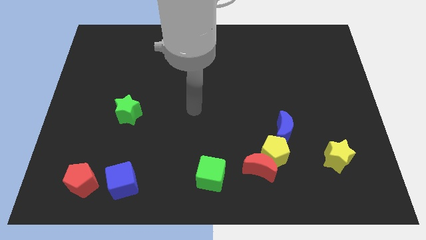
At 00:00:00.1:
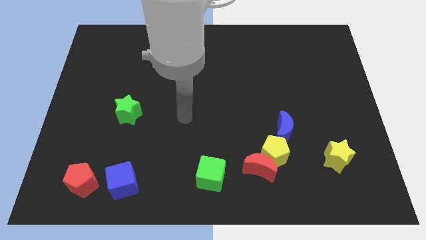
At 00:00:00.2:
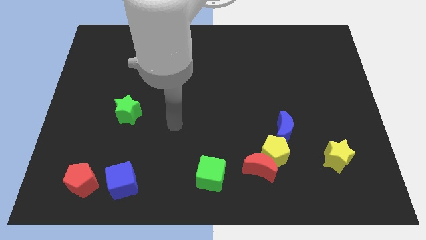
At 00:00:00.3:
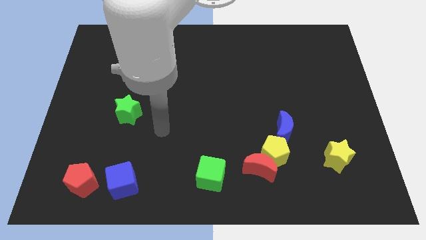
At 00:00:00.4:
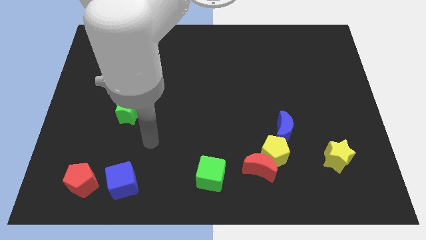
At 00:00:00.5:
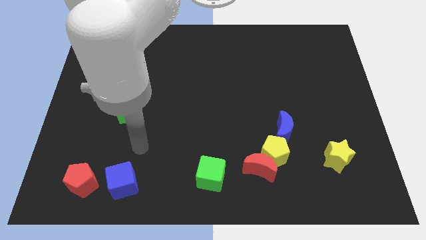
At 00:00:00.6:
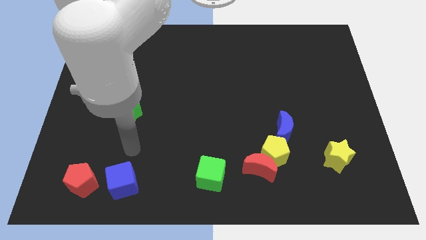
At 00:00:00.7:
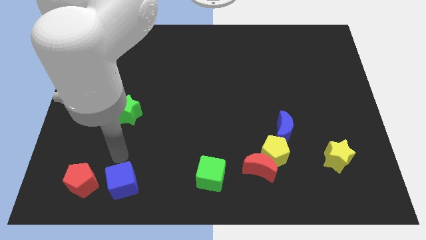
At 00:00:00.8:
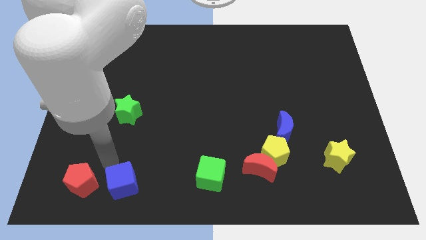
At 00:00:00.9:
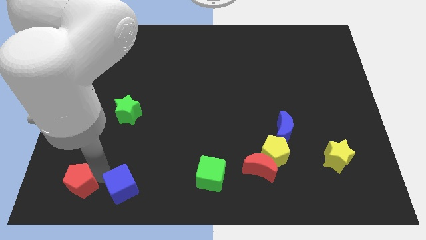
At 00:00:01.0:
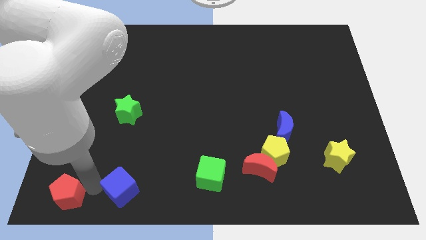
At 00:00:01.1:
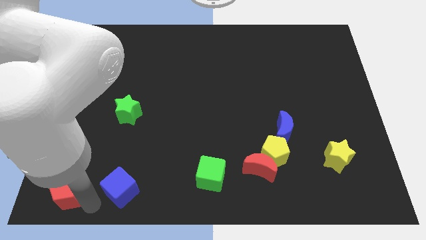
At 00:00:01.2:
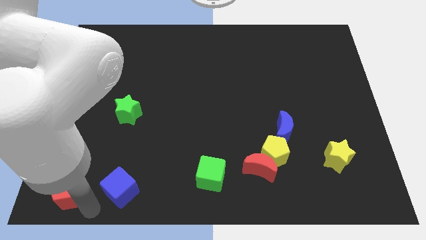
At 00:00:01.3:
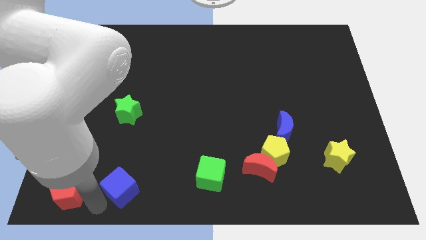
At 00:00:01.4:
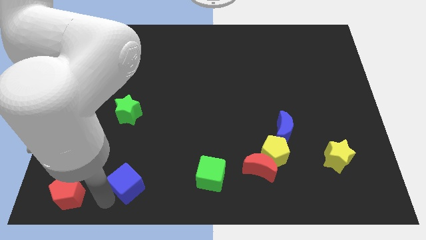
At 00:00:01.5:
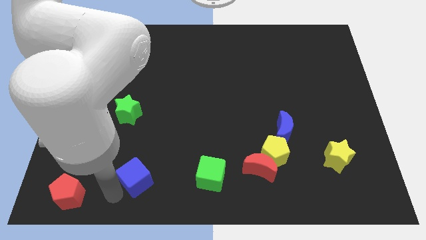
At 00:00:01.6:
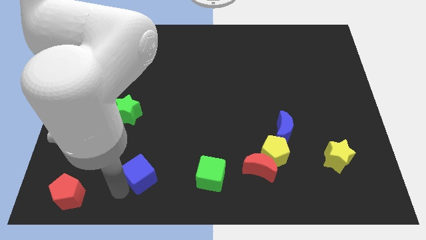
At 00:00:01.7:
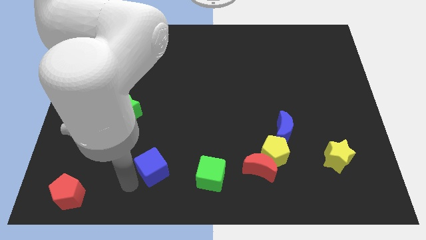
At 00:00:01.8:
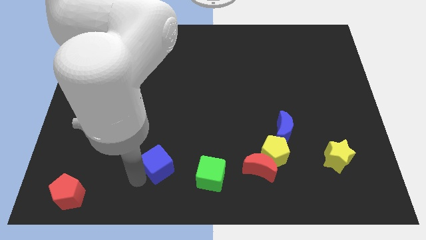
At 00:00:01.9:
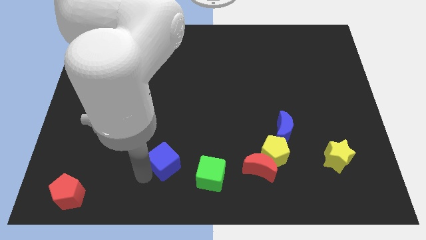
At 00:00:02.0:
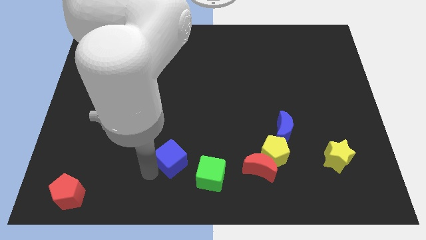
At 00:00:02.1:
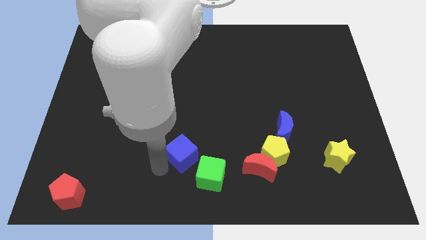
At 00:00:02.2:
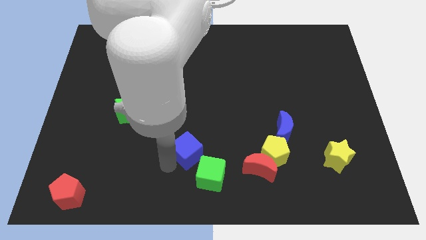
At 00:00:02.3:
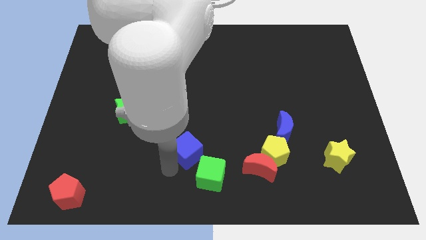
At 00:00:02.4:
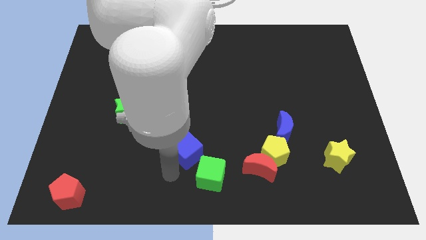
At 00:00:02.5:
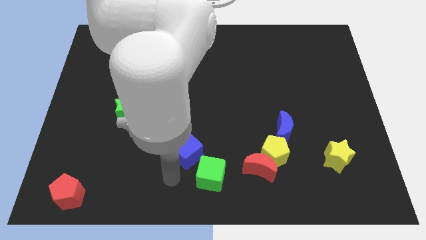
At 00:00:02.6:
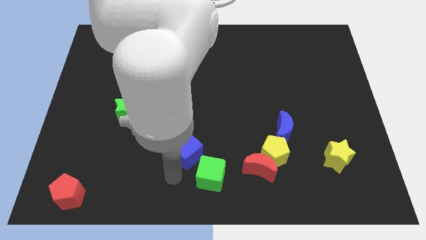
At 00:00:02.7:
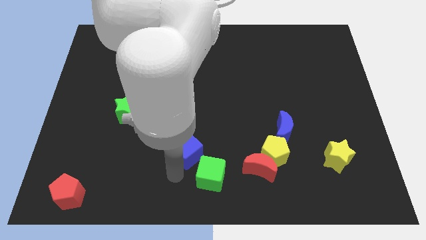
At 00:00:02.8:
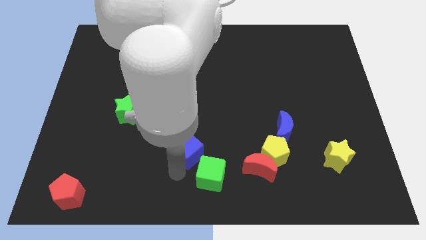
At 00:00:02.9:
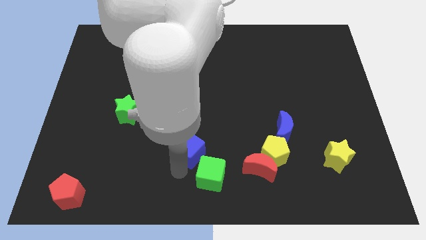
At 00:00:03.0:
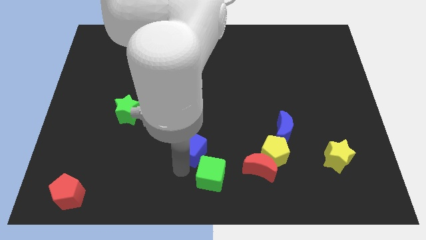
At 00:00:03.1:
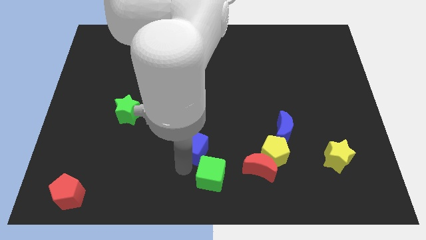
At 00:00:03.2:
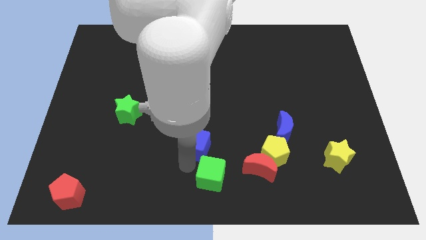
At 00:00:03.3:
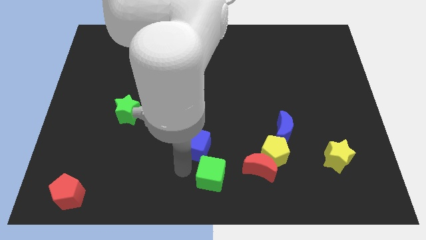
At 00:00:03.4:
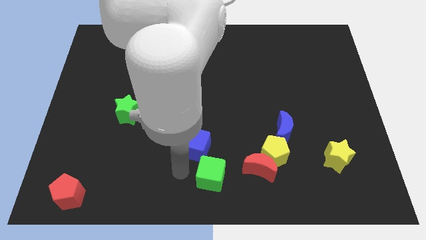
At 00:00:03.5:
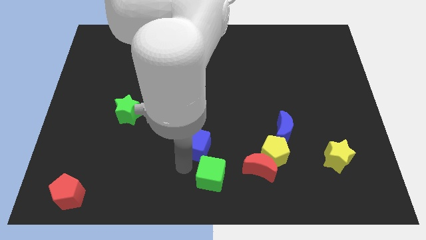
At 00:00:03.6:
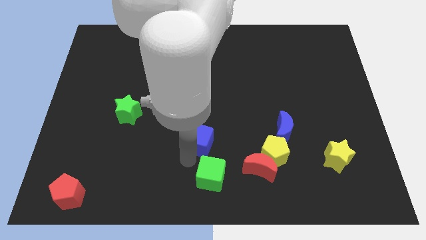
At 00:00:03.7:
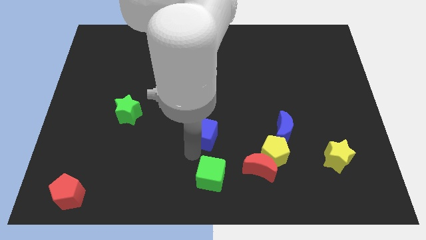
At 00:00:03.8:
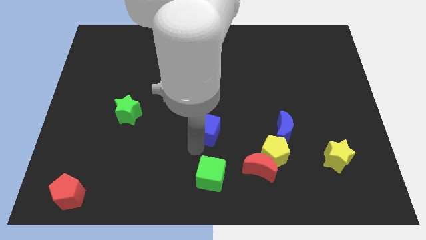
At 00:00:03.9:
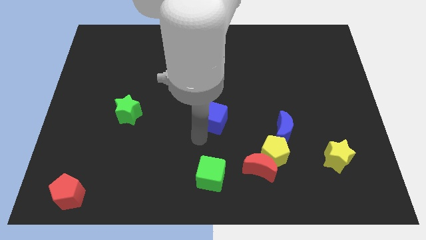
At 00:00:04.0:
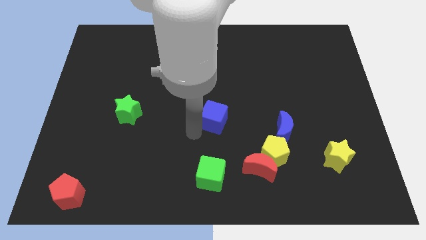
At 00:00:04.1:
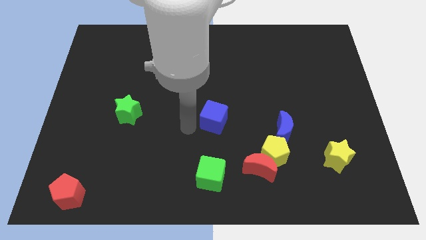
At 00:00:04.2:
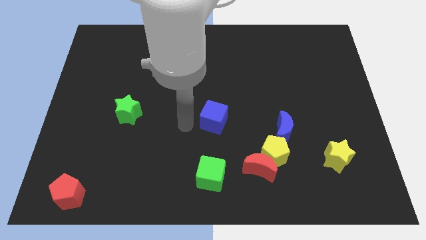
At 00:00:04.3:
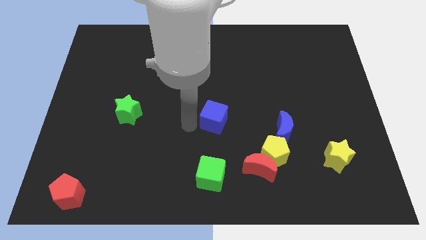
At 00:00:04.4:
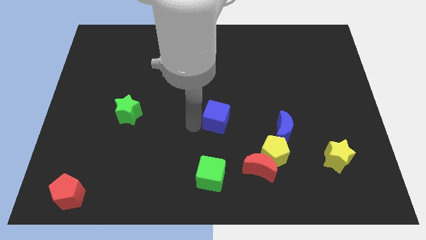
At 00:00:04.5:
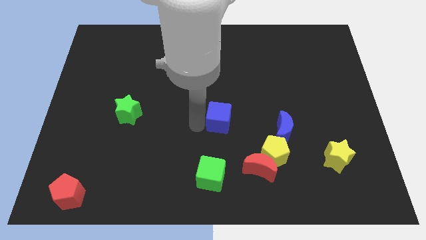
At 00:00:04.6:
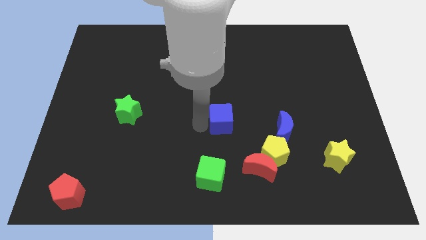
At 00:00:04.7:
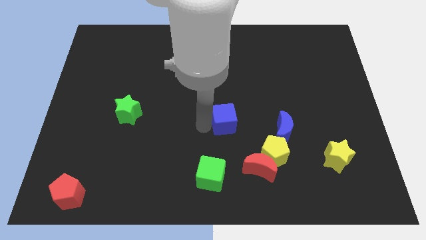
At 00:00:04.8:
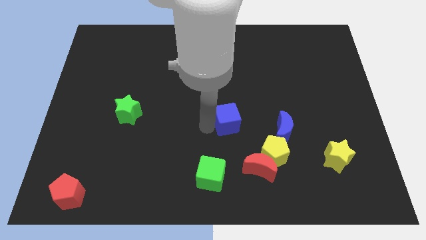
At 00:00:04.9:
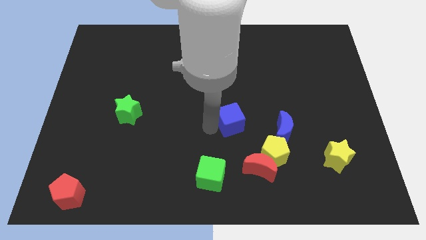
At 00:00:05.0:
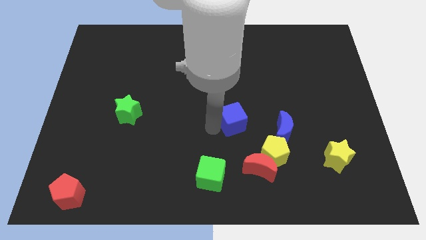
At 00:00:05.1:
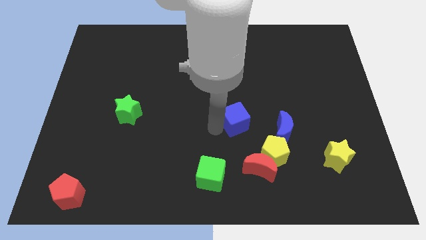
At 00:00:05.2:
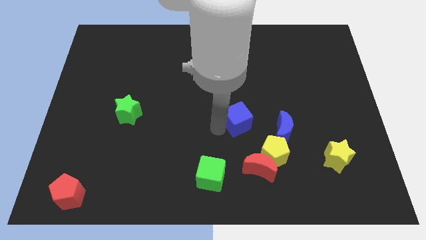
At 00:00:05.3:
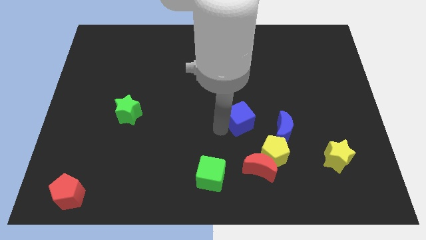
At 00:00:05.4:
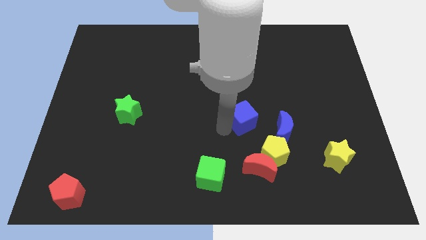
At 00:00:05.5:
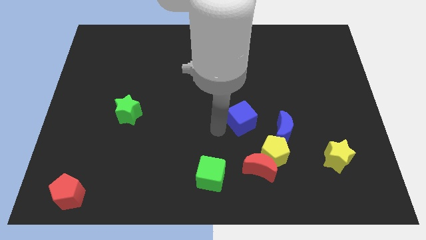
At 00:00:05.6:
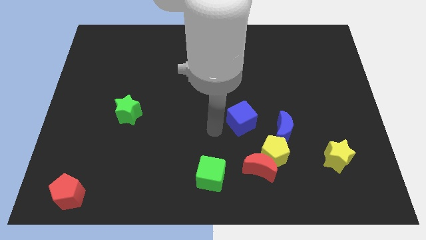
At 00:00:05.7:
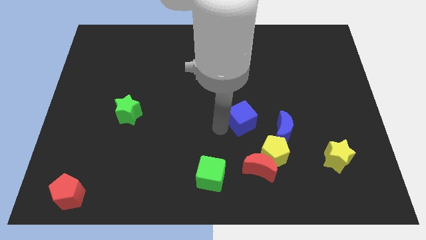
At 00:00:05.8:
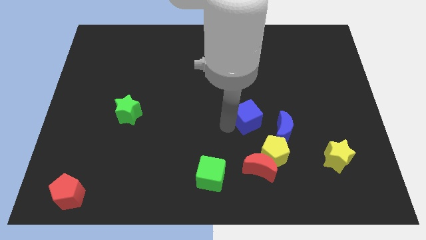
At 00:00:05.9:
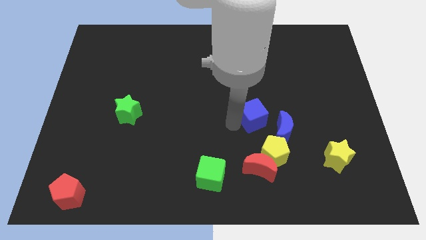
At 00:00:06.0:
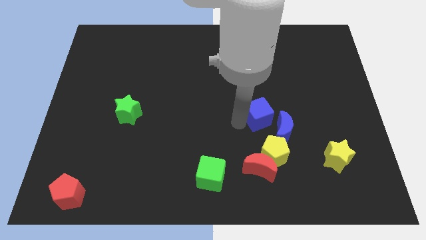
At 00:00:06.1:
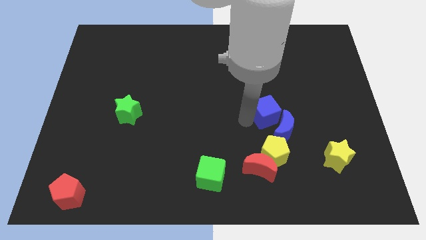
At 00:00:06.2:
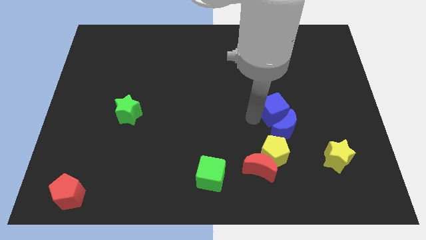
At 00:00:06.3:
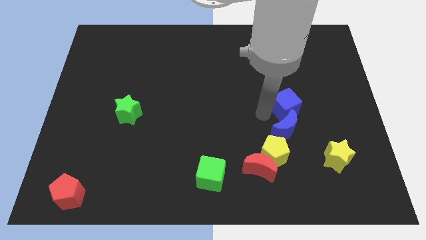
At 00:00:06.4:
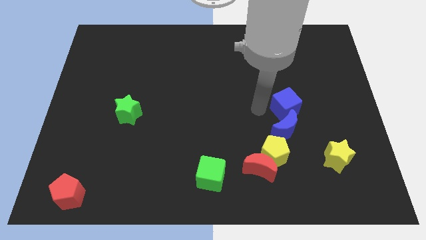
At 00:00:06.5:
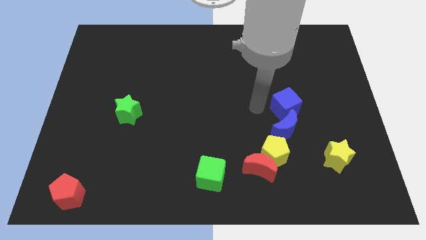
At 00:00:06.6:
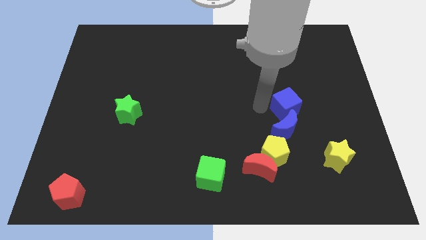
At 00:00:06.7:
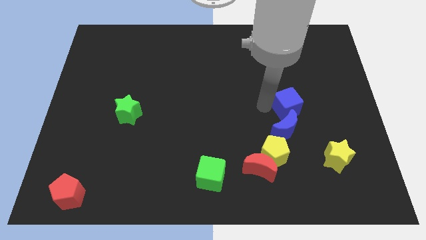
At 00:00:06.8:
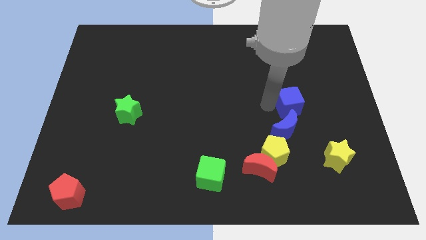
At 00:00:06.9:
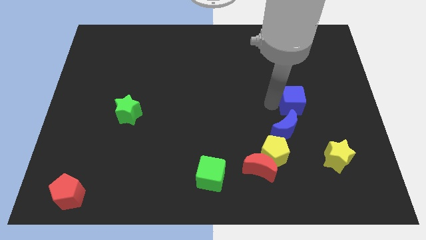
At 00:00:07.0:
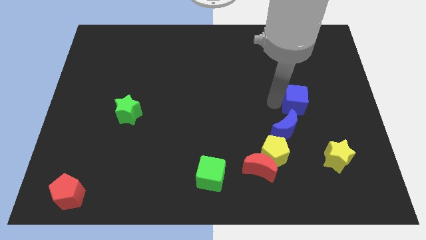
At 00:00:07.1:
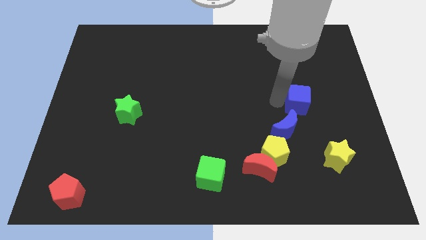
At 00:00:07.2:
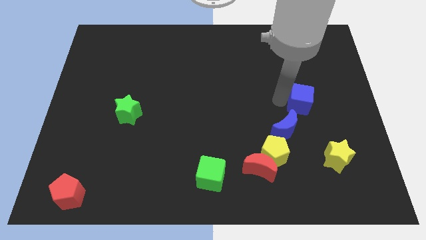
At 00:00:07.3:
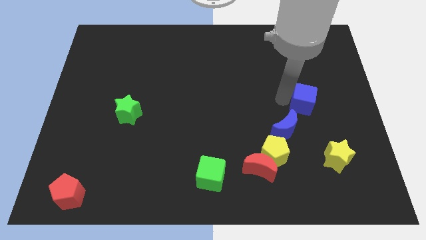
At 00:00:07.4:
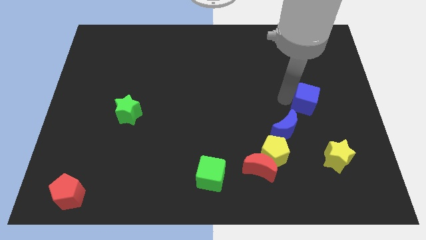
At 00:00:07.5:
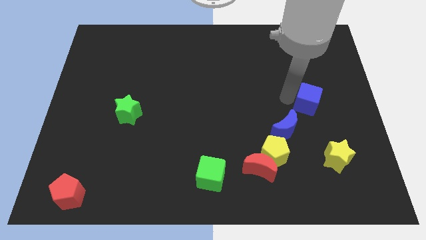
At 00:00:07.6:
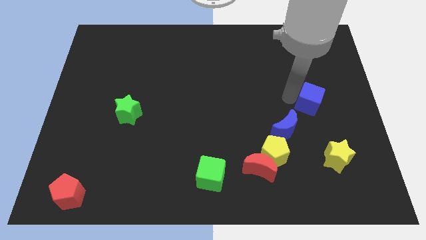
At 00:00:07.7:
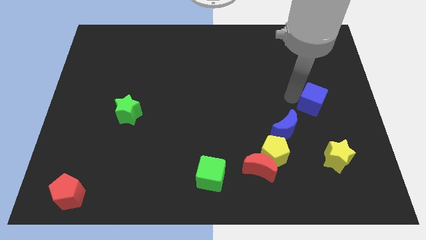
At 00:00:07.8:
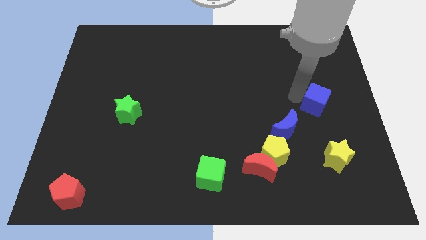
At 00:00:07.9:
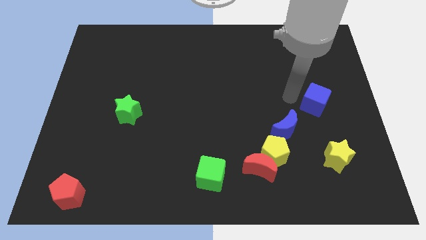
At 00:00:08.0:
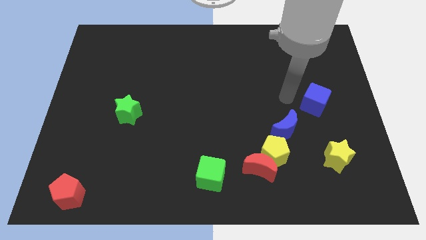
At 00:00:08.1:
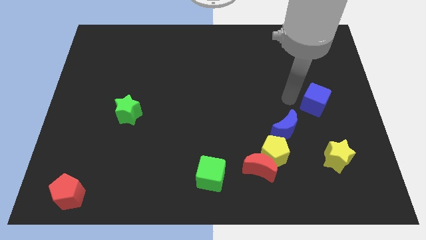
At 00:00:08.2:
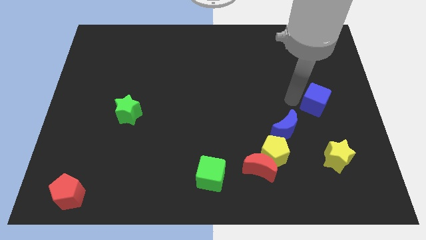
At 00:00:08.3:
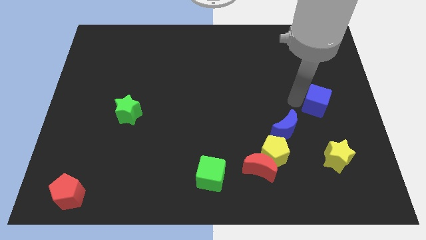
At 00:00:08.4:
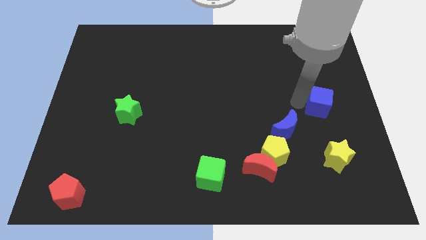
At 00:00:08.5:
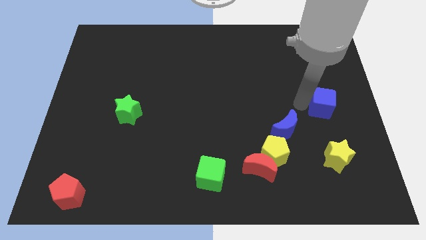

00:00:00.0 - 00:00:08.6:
move the blue cube to the center right
